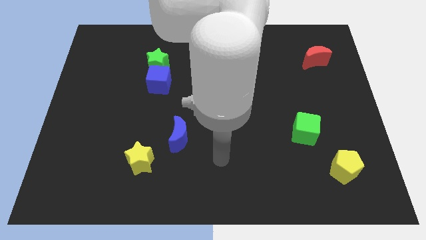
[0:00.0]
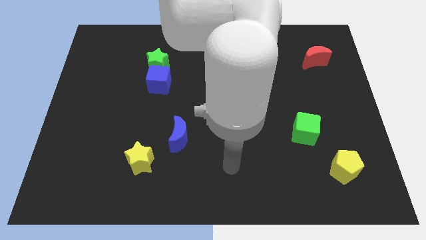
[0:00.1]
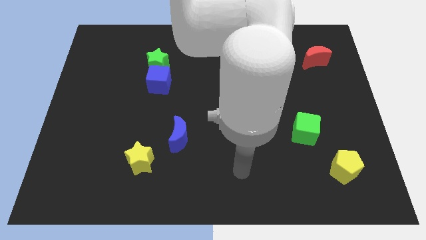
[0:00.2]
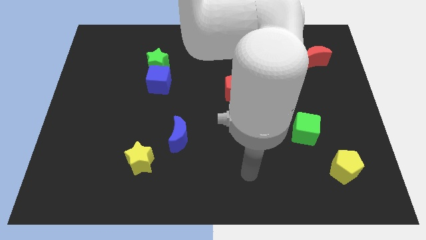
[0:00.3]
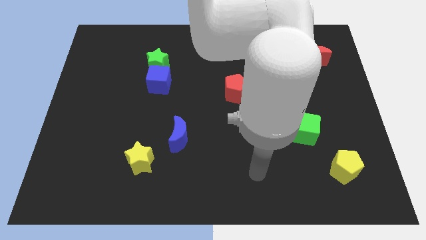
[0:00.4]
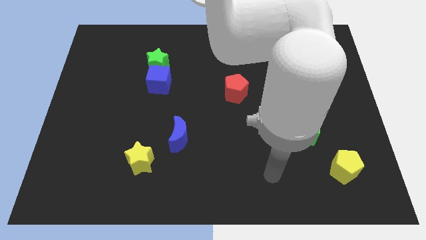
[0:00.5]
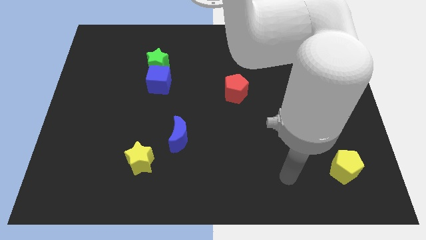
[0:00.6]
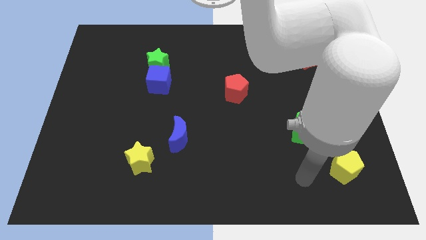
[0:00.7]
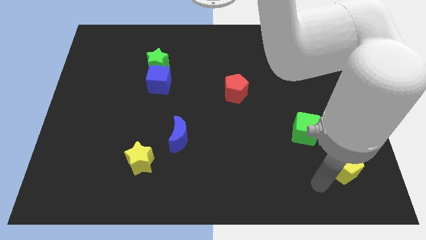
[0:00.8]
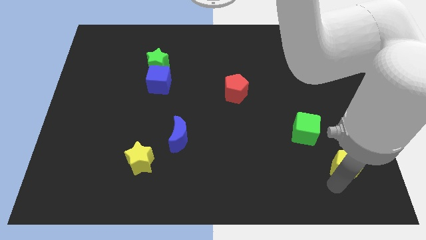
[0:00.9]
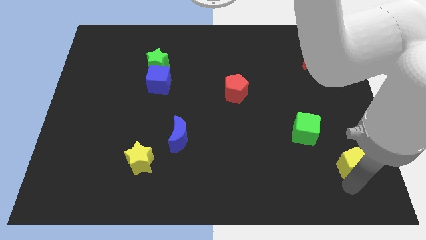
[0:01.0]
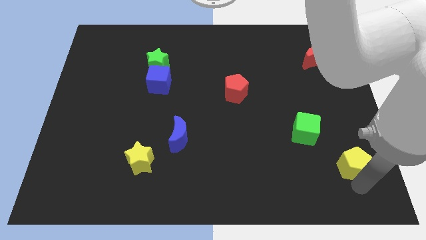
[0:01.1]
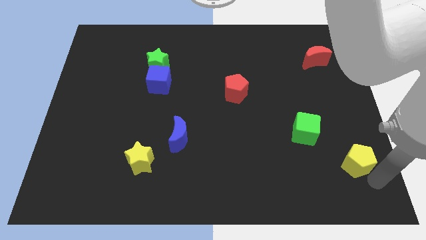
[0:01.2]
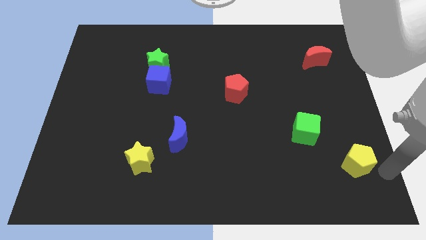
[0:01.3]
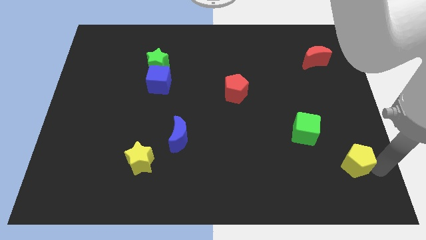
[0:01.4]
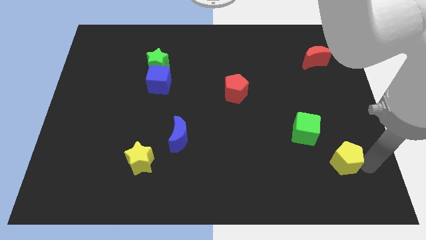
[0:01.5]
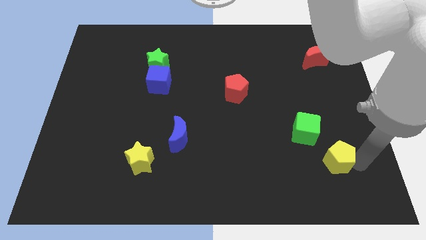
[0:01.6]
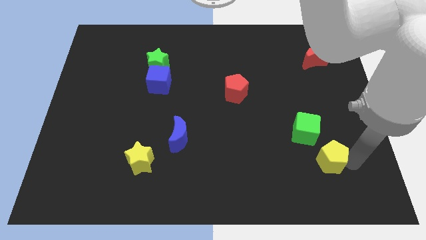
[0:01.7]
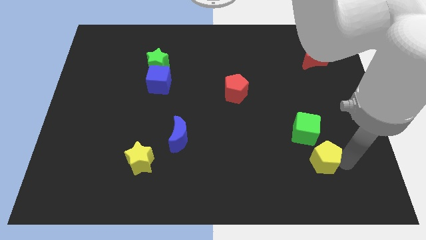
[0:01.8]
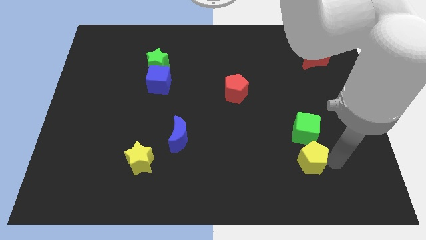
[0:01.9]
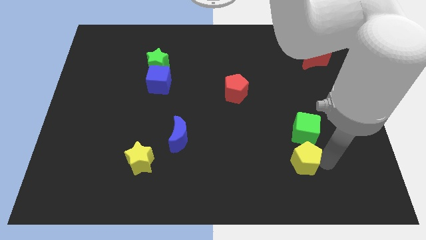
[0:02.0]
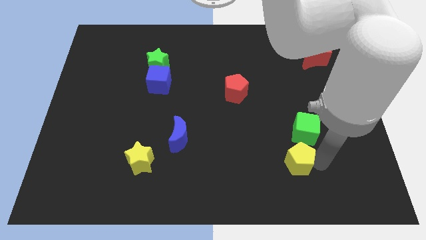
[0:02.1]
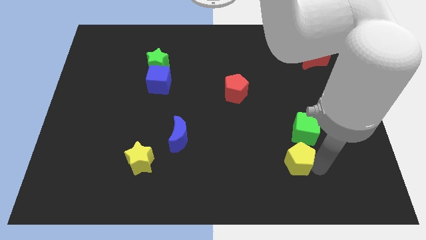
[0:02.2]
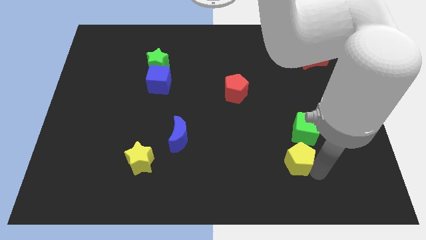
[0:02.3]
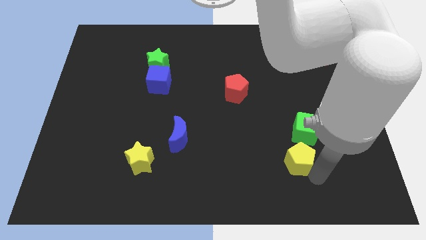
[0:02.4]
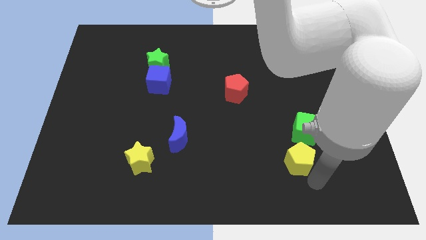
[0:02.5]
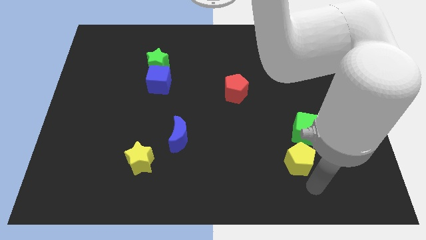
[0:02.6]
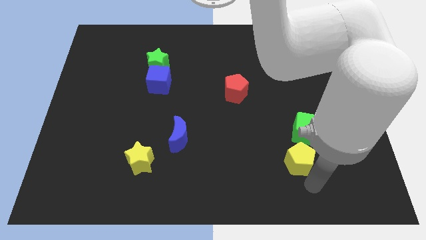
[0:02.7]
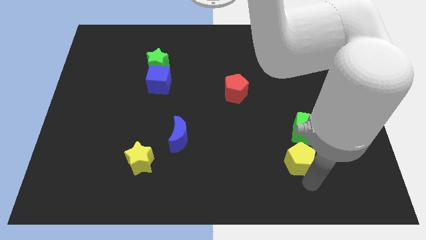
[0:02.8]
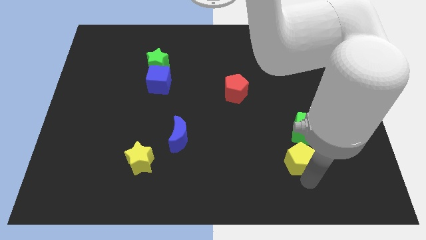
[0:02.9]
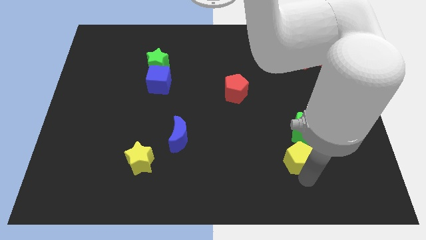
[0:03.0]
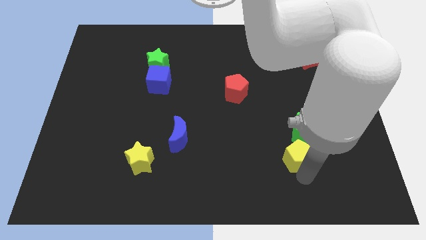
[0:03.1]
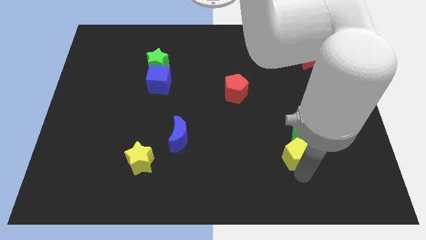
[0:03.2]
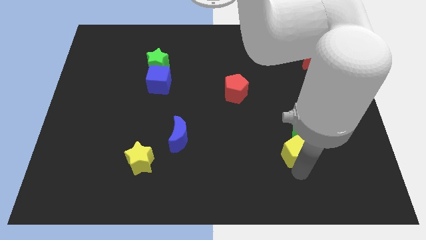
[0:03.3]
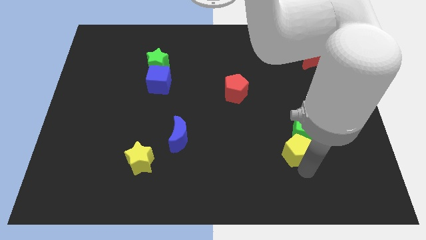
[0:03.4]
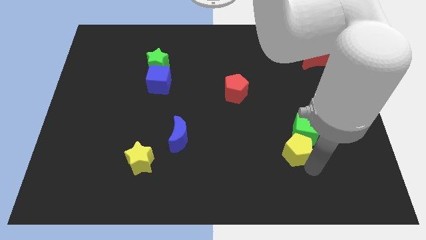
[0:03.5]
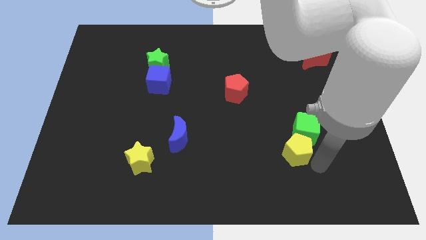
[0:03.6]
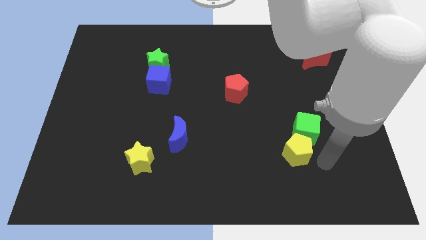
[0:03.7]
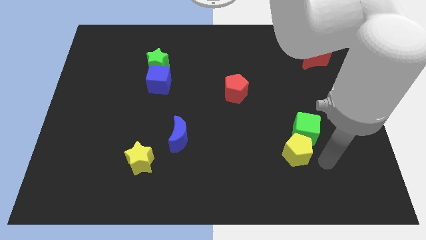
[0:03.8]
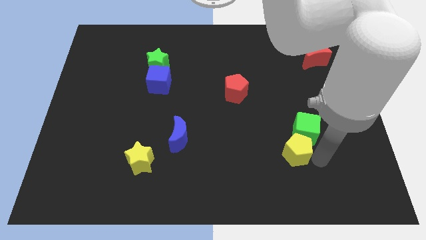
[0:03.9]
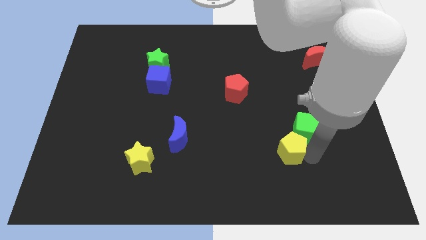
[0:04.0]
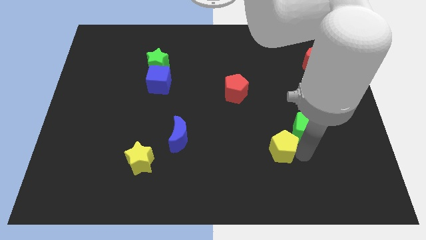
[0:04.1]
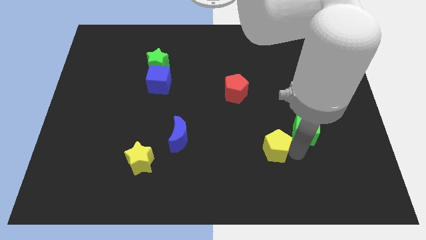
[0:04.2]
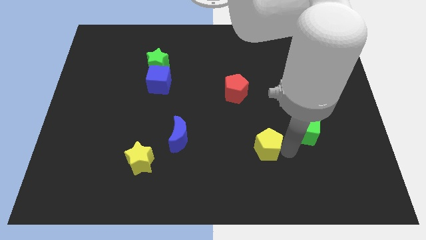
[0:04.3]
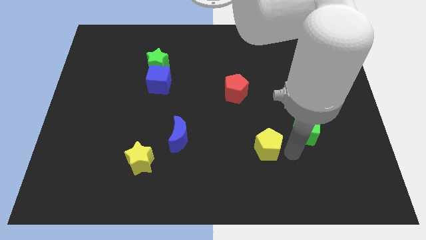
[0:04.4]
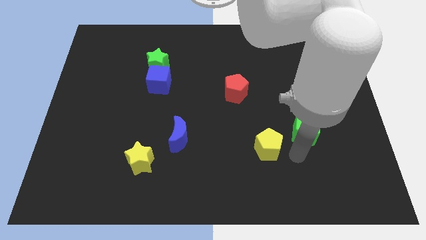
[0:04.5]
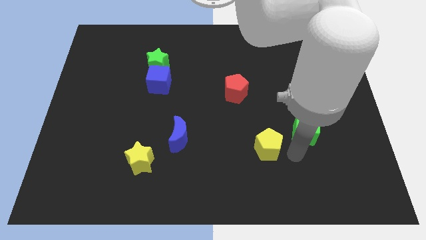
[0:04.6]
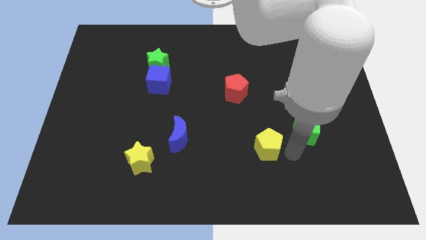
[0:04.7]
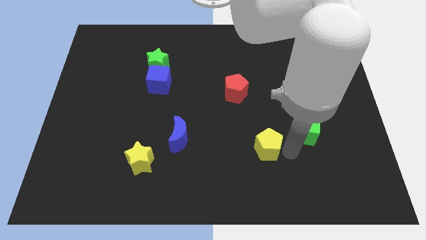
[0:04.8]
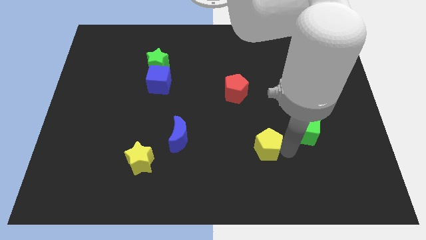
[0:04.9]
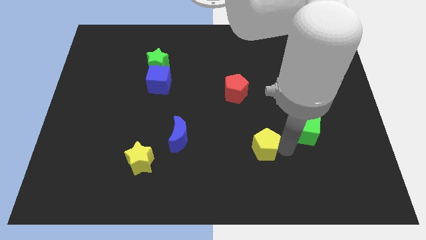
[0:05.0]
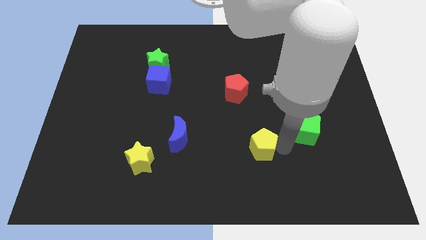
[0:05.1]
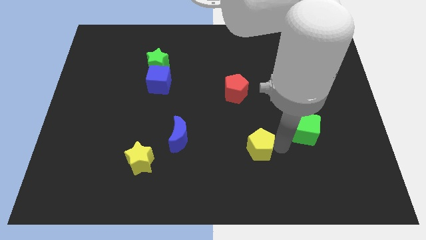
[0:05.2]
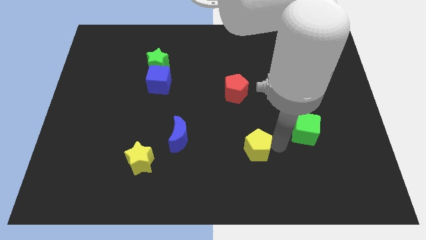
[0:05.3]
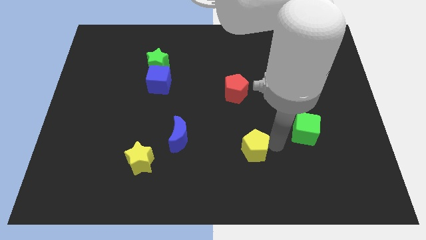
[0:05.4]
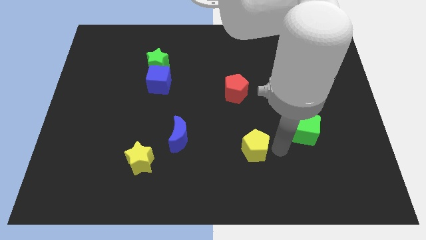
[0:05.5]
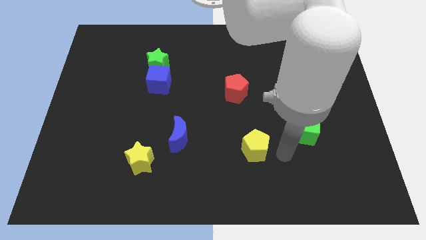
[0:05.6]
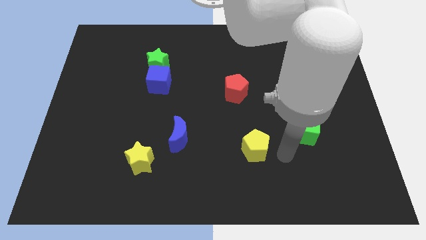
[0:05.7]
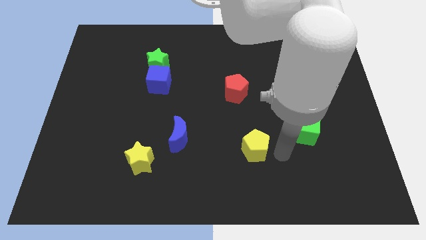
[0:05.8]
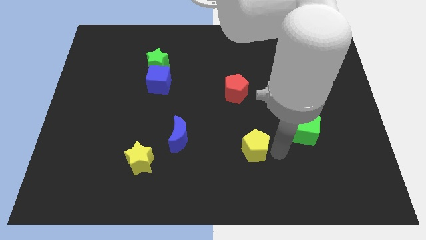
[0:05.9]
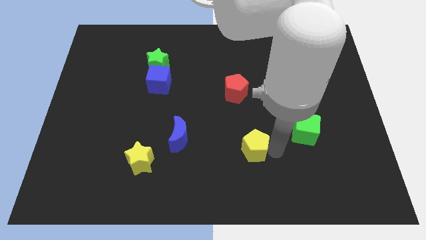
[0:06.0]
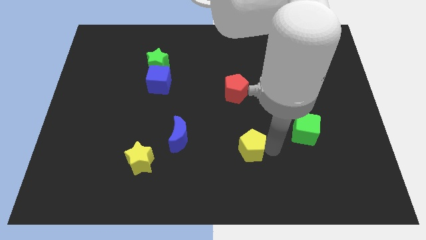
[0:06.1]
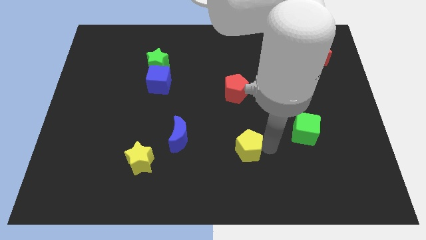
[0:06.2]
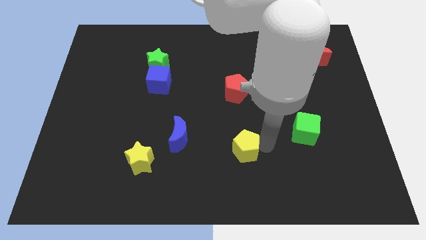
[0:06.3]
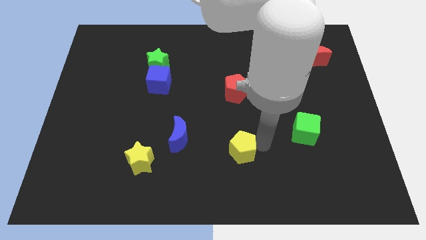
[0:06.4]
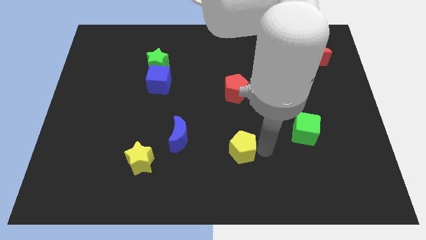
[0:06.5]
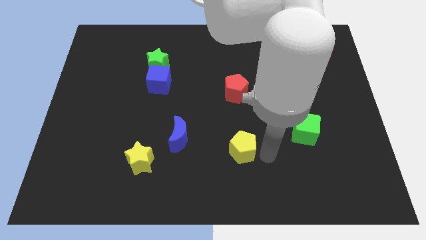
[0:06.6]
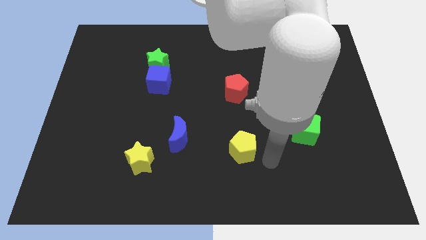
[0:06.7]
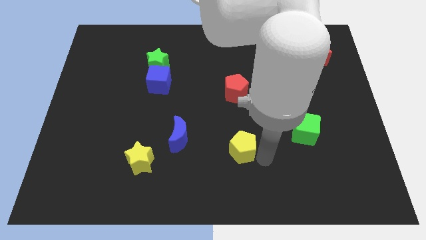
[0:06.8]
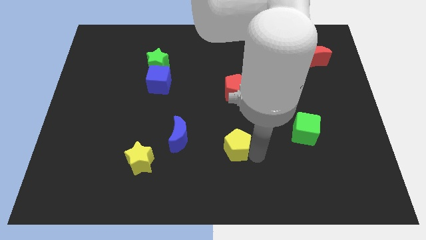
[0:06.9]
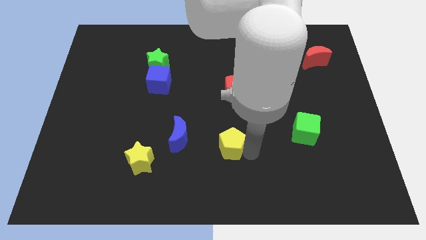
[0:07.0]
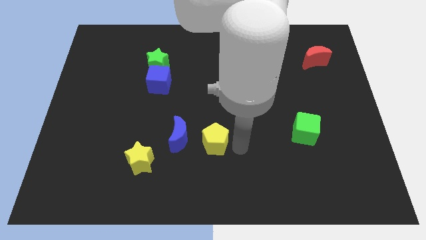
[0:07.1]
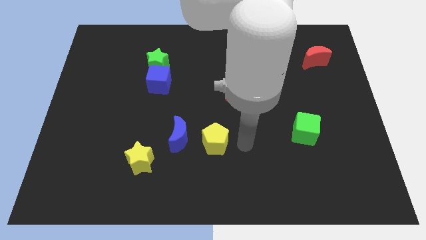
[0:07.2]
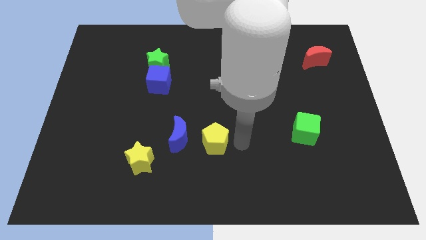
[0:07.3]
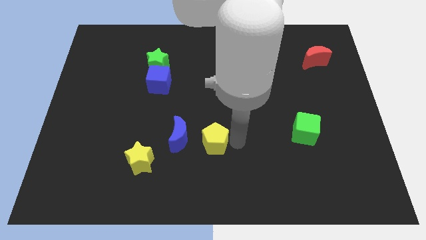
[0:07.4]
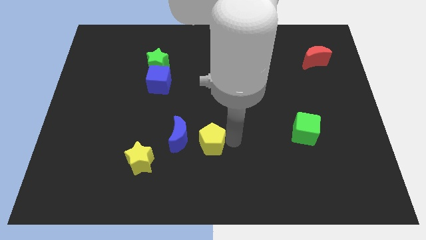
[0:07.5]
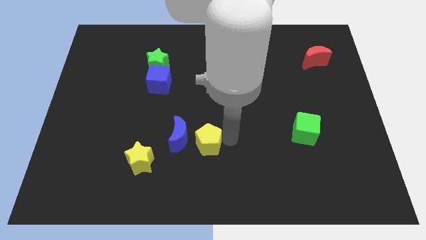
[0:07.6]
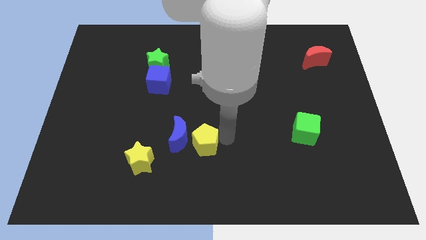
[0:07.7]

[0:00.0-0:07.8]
move the yellow pentagon next to the blue moon
